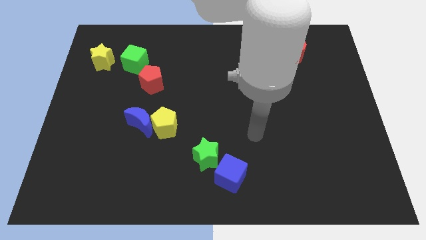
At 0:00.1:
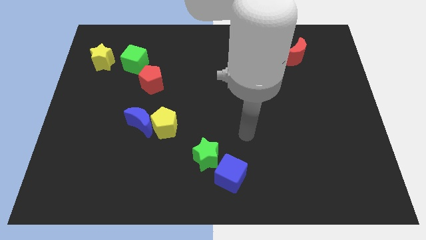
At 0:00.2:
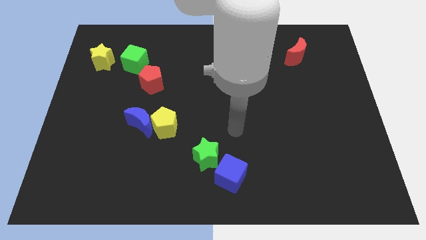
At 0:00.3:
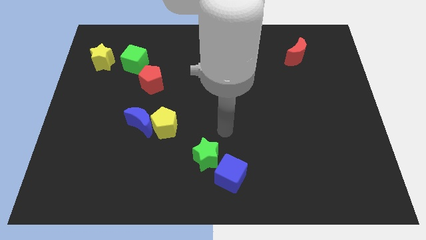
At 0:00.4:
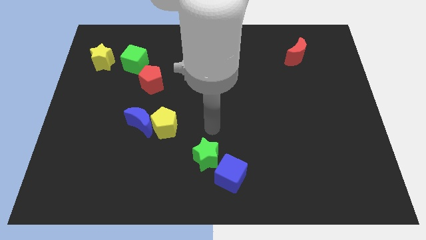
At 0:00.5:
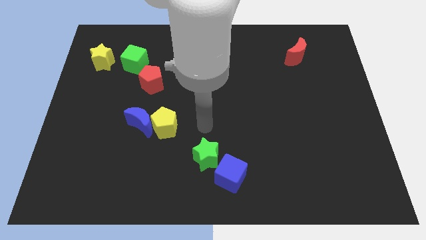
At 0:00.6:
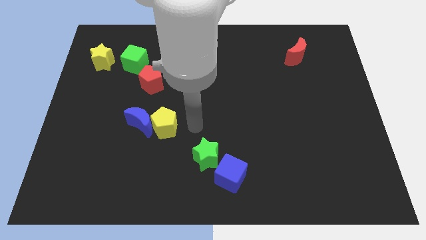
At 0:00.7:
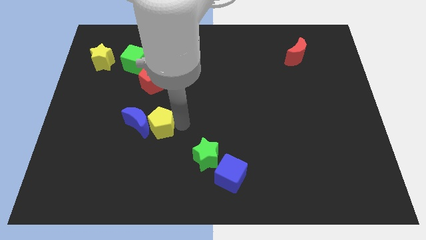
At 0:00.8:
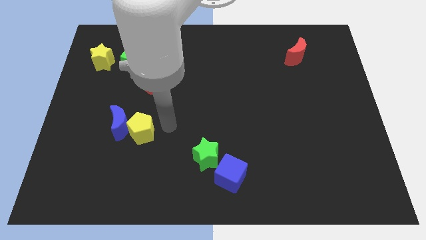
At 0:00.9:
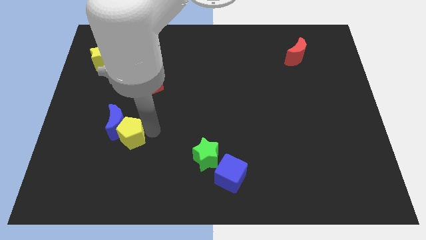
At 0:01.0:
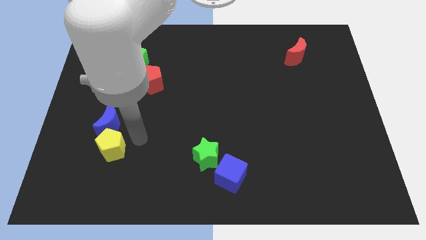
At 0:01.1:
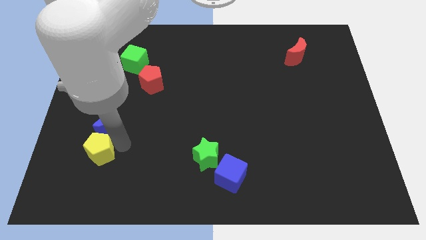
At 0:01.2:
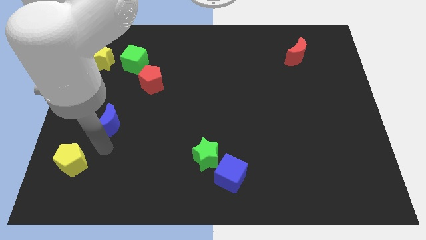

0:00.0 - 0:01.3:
separate the blue moon from the yellow pentagon

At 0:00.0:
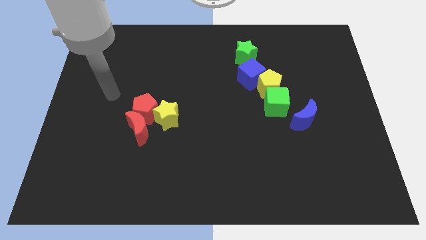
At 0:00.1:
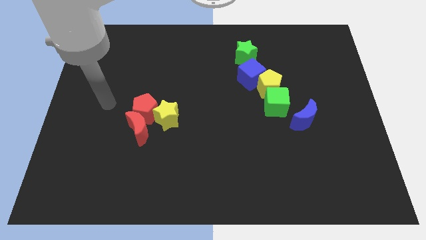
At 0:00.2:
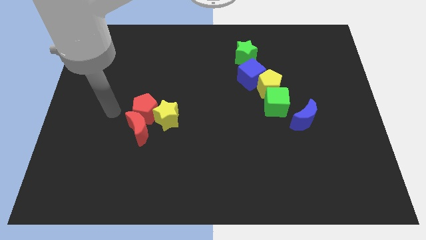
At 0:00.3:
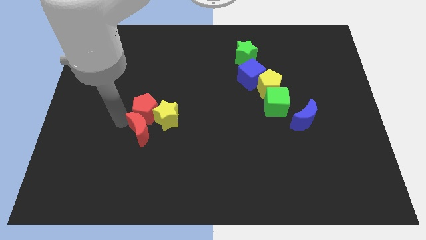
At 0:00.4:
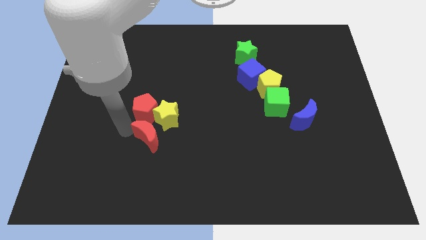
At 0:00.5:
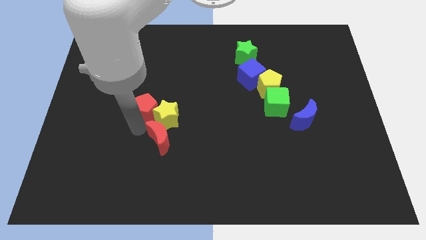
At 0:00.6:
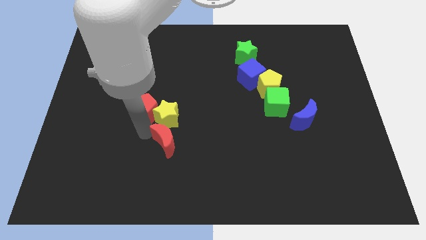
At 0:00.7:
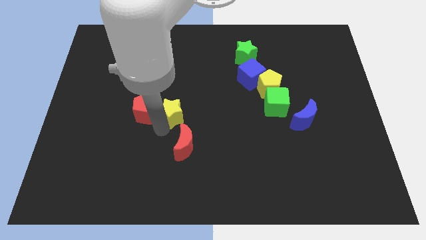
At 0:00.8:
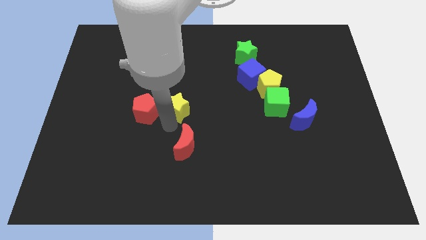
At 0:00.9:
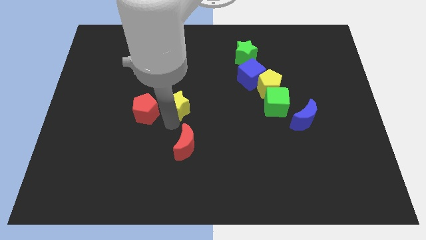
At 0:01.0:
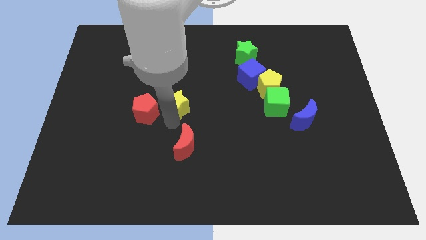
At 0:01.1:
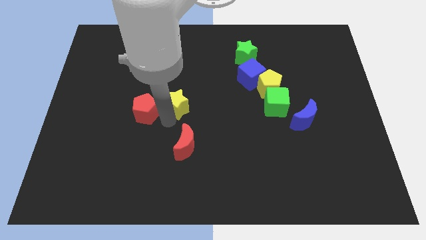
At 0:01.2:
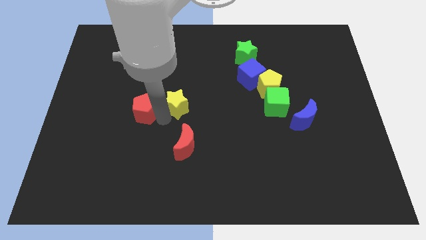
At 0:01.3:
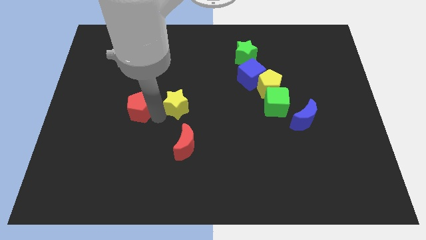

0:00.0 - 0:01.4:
pull the red pentagon apart from the red moon and yellow star

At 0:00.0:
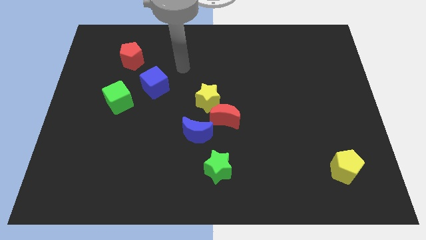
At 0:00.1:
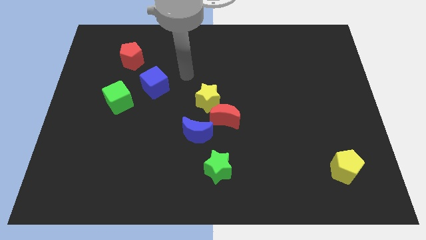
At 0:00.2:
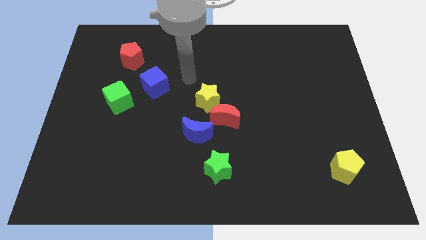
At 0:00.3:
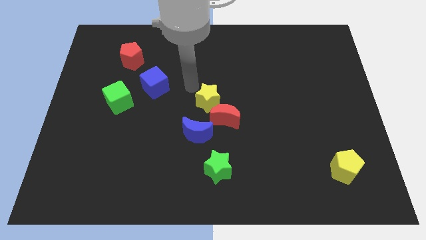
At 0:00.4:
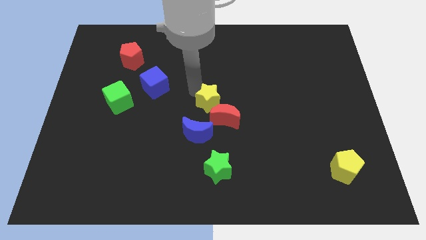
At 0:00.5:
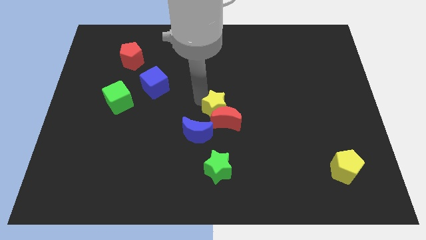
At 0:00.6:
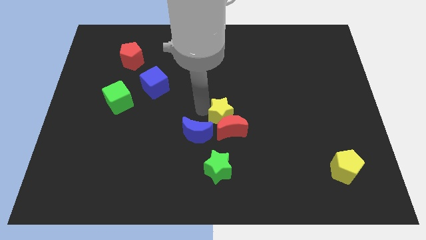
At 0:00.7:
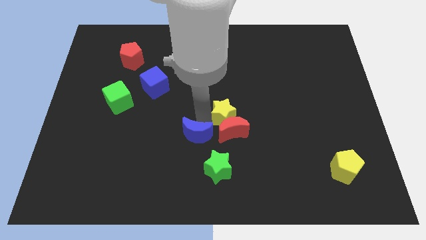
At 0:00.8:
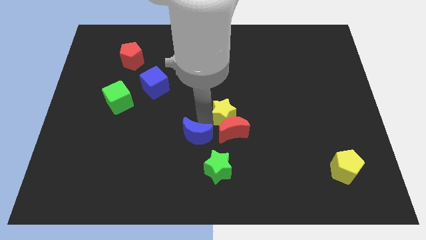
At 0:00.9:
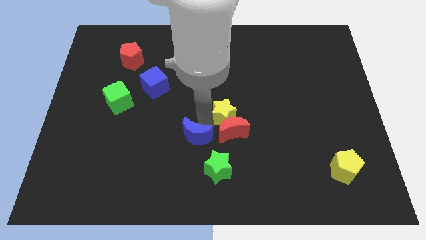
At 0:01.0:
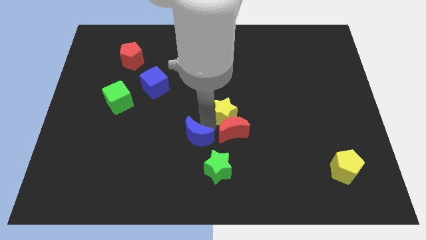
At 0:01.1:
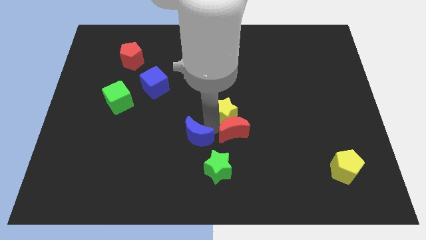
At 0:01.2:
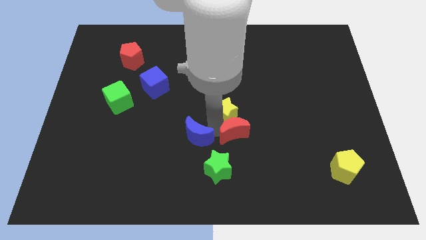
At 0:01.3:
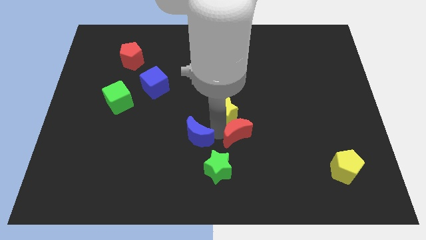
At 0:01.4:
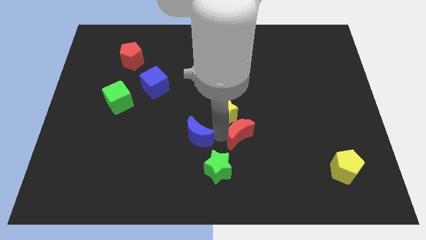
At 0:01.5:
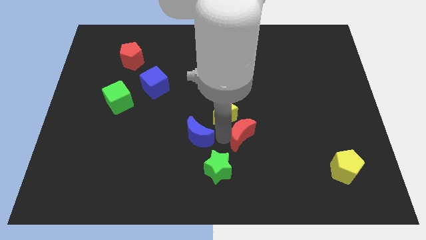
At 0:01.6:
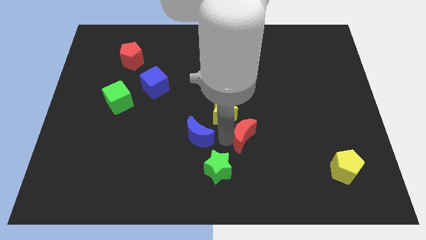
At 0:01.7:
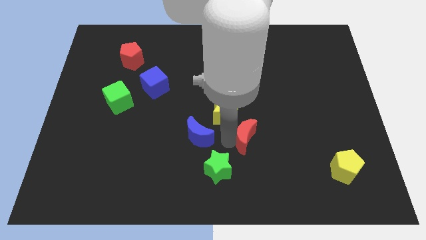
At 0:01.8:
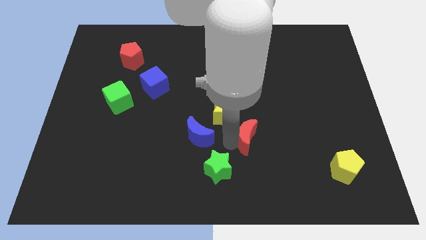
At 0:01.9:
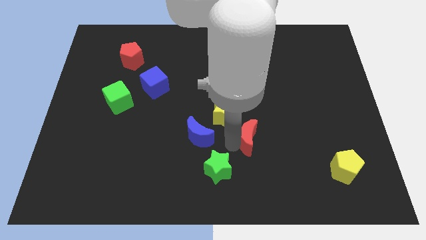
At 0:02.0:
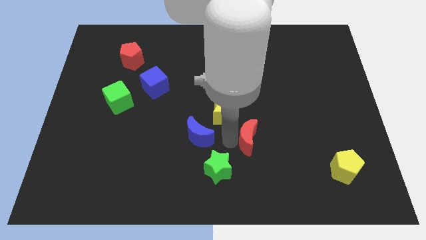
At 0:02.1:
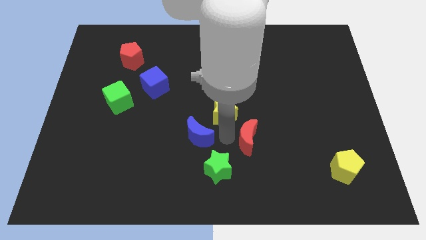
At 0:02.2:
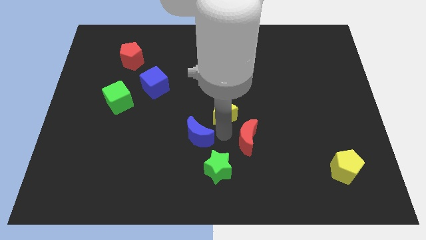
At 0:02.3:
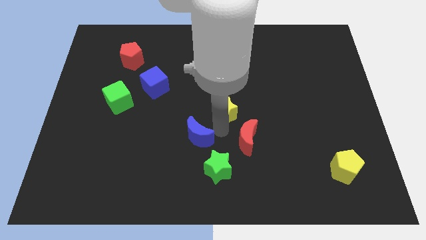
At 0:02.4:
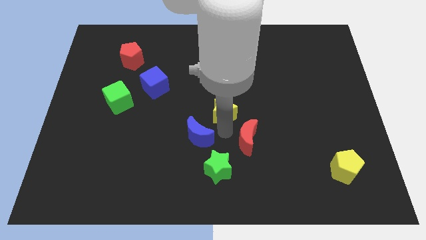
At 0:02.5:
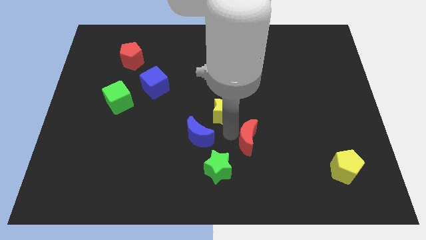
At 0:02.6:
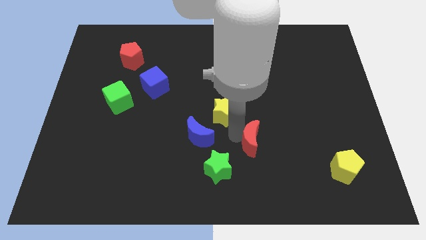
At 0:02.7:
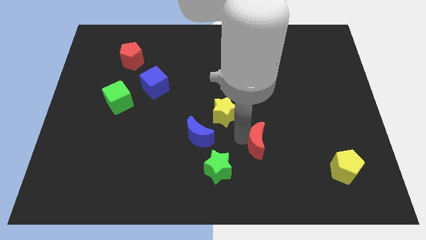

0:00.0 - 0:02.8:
move the red moon away from the yellow star and blue moon

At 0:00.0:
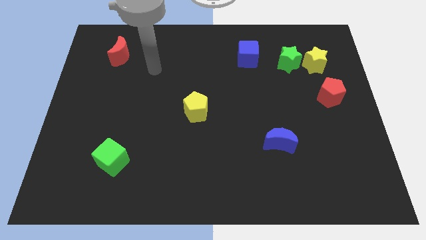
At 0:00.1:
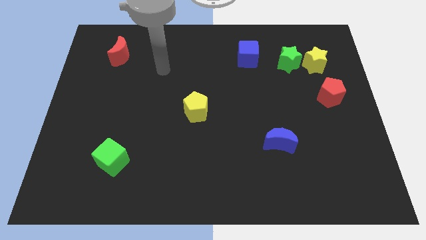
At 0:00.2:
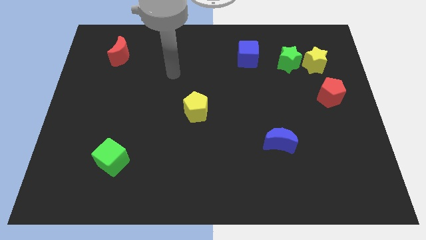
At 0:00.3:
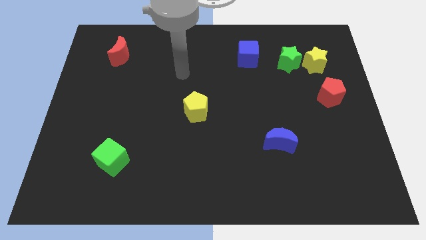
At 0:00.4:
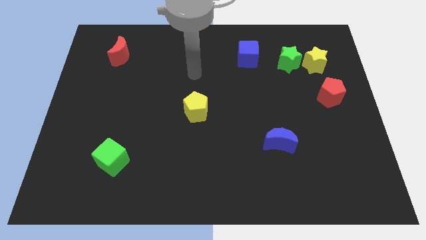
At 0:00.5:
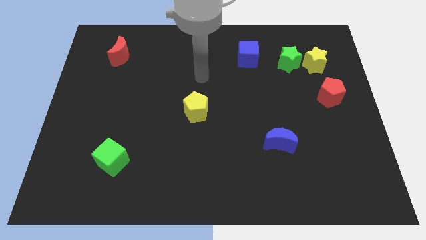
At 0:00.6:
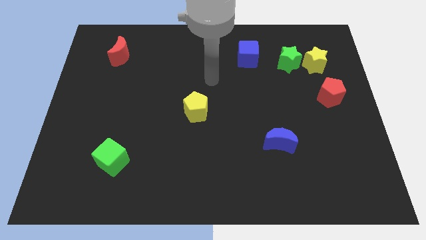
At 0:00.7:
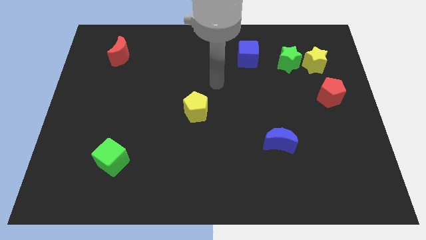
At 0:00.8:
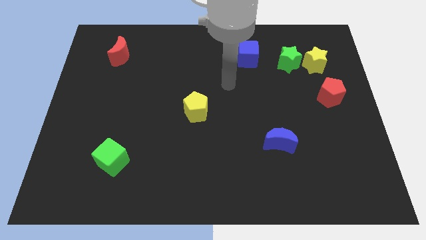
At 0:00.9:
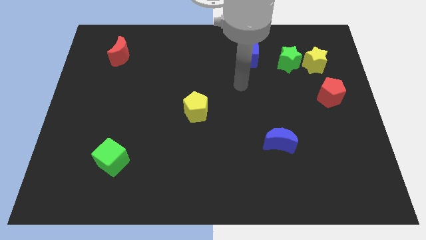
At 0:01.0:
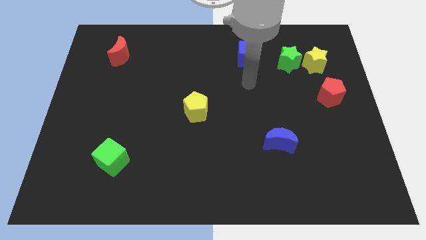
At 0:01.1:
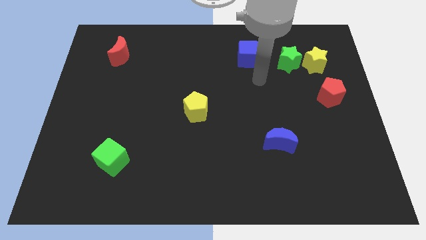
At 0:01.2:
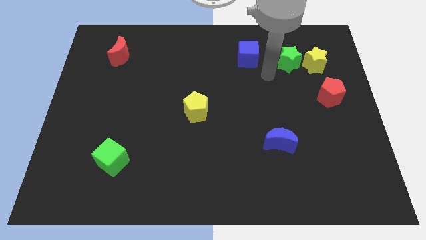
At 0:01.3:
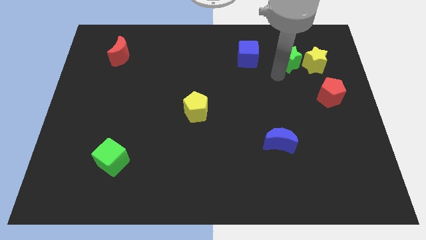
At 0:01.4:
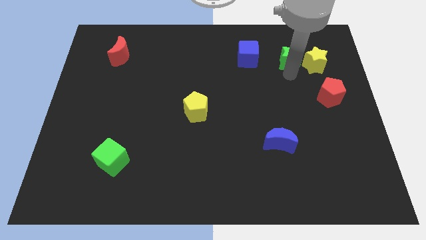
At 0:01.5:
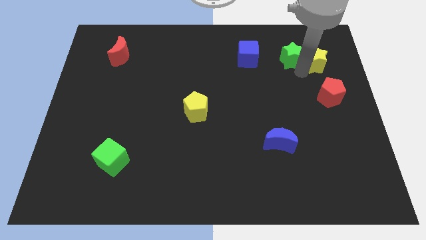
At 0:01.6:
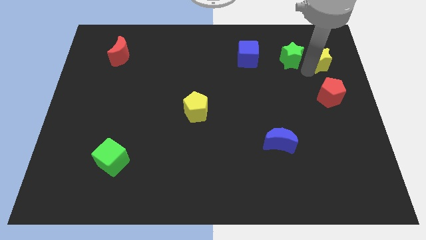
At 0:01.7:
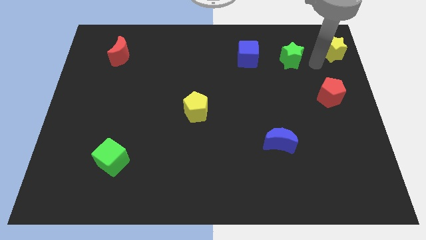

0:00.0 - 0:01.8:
move the green star away from the yellow star

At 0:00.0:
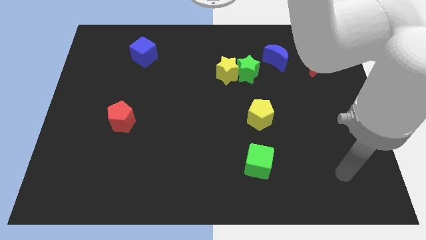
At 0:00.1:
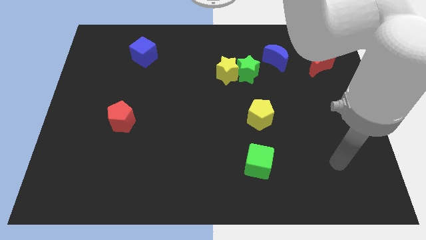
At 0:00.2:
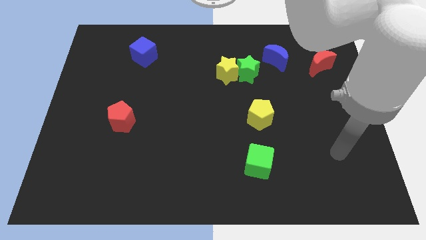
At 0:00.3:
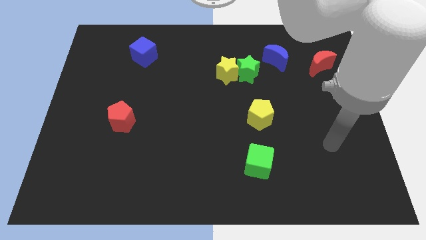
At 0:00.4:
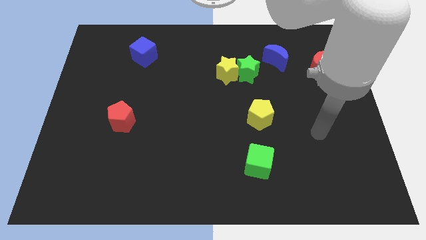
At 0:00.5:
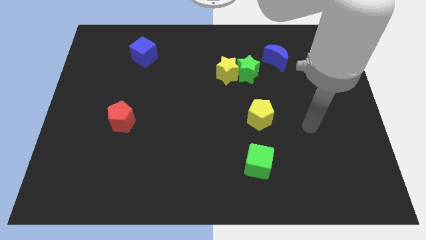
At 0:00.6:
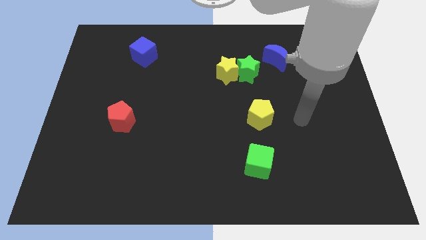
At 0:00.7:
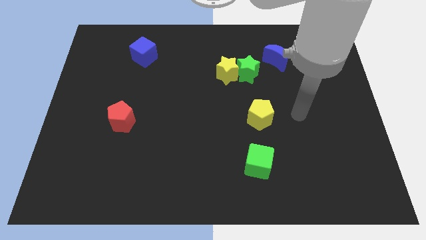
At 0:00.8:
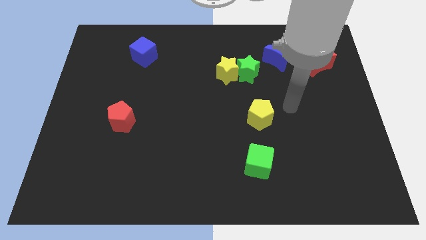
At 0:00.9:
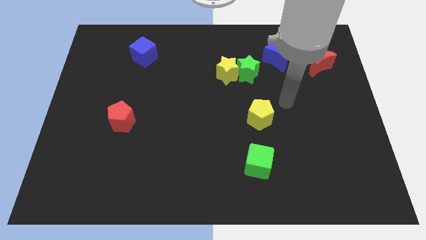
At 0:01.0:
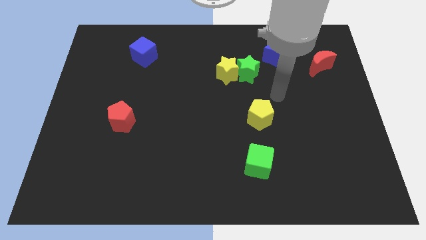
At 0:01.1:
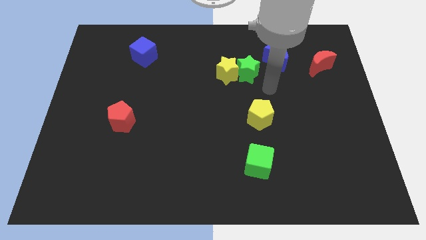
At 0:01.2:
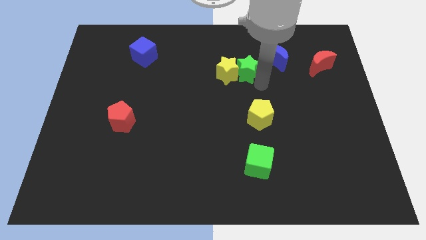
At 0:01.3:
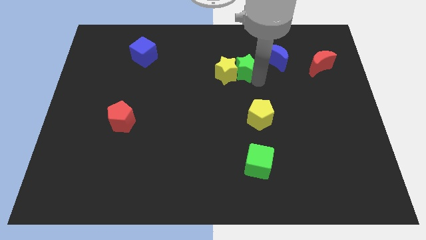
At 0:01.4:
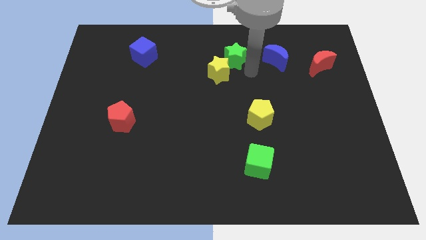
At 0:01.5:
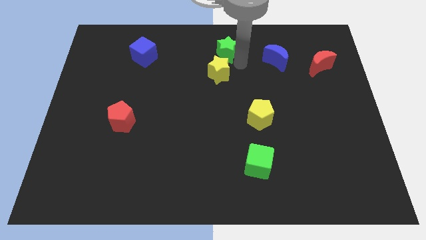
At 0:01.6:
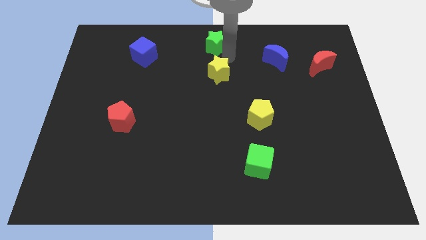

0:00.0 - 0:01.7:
pull the yellow star apart from the green star

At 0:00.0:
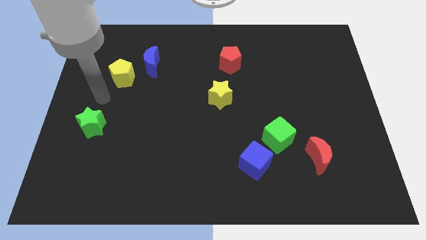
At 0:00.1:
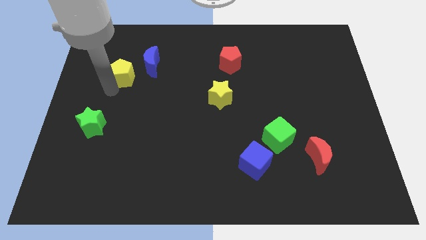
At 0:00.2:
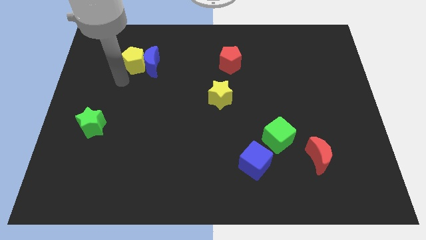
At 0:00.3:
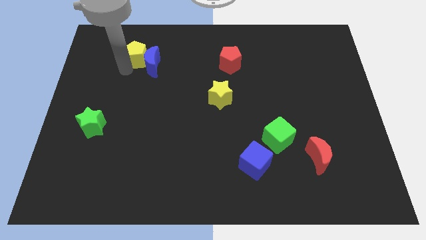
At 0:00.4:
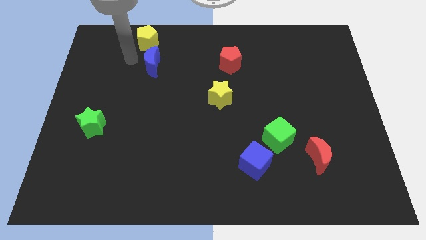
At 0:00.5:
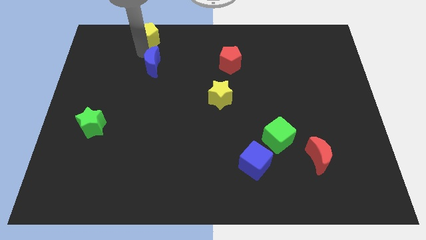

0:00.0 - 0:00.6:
move the blue moon away from the yellow pentagon
